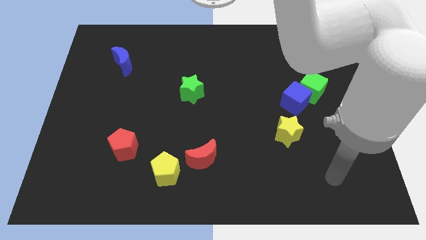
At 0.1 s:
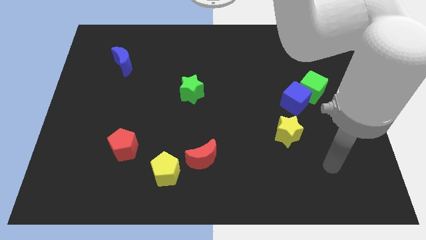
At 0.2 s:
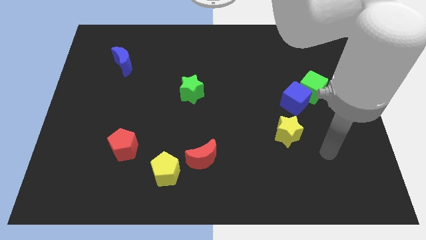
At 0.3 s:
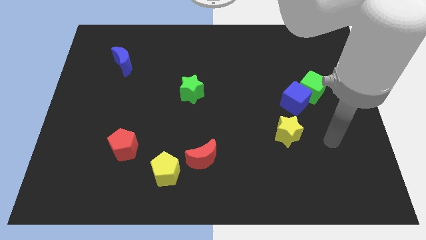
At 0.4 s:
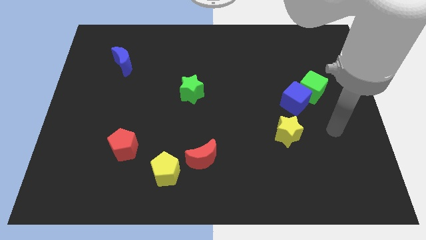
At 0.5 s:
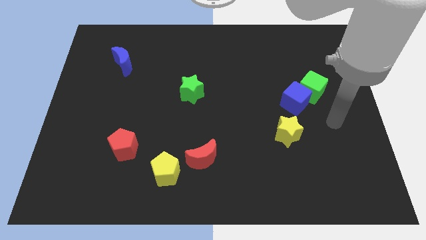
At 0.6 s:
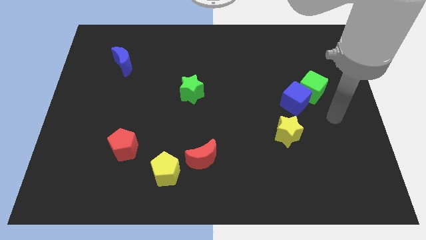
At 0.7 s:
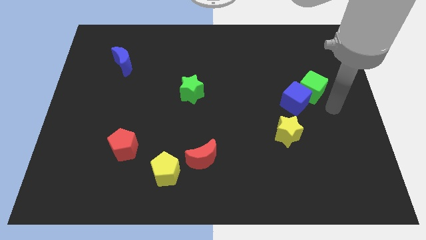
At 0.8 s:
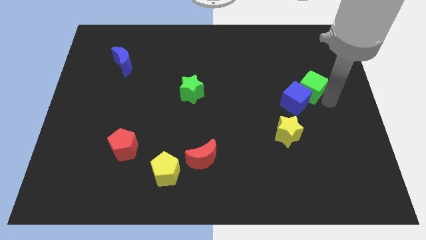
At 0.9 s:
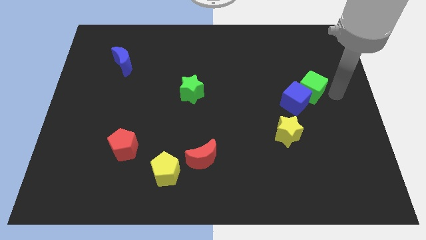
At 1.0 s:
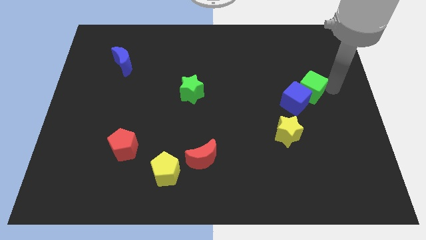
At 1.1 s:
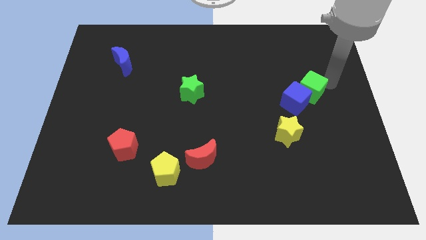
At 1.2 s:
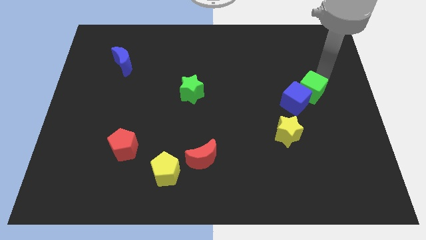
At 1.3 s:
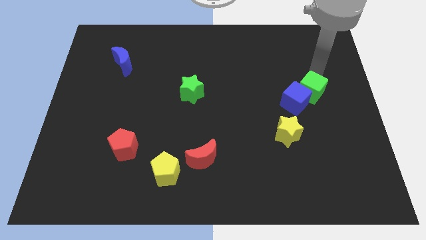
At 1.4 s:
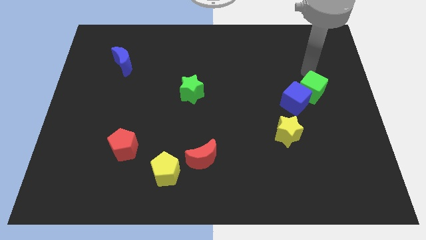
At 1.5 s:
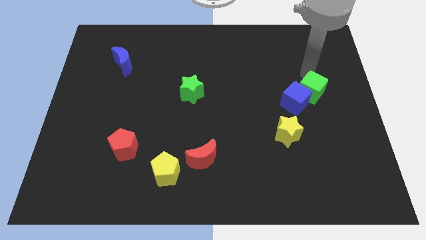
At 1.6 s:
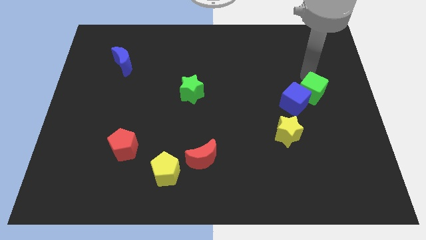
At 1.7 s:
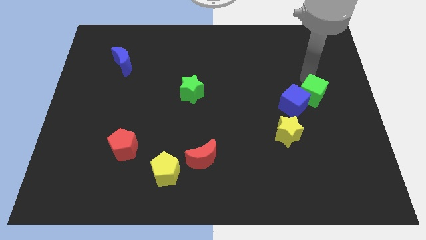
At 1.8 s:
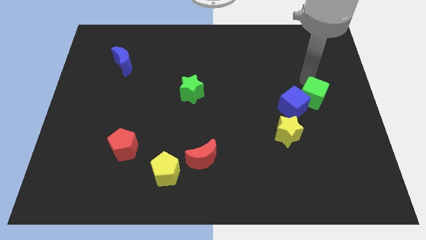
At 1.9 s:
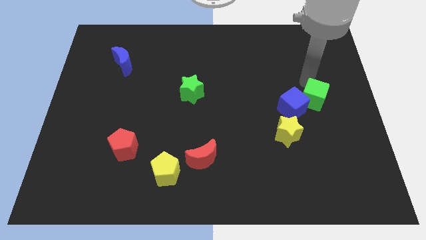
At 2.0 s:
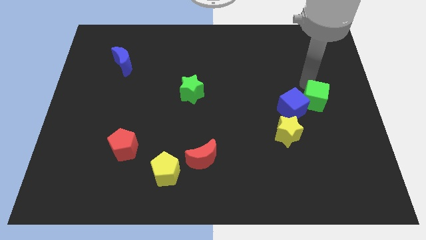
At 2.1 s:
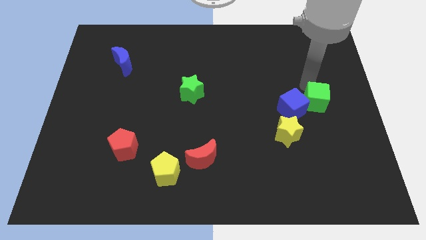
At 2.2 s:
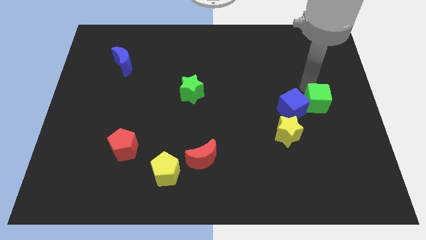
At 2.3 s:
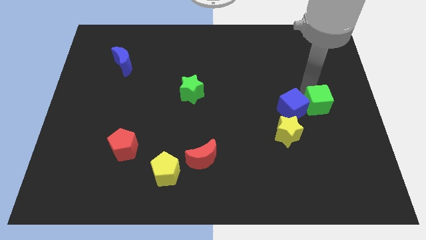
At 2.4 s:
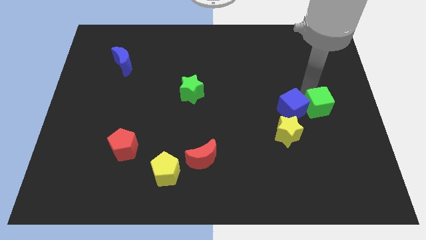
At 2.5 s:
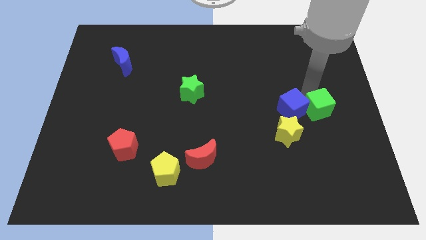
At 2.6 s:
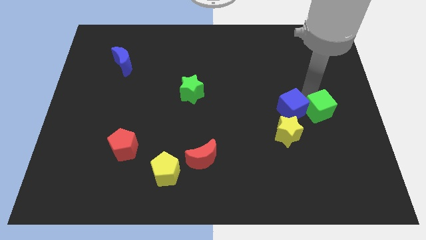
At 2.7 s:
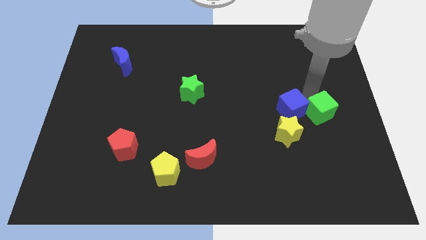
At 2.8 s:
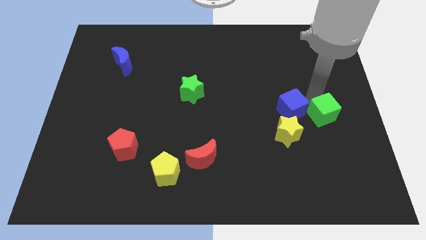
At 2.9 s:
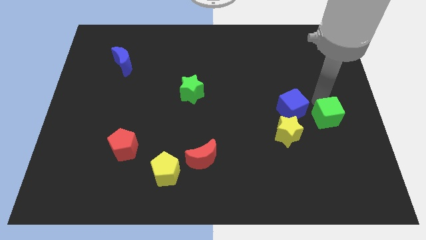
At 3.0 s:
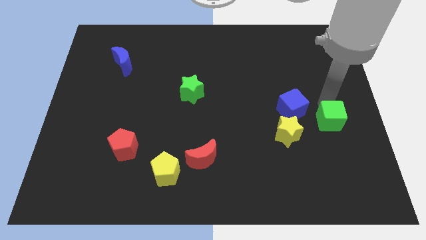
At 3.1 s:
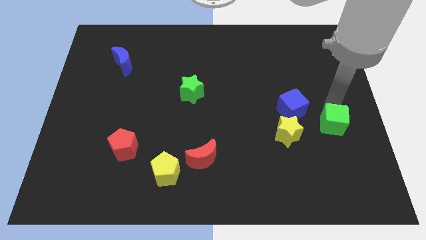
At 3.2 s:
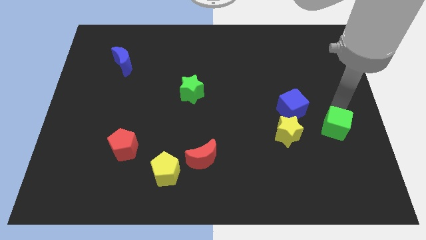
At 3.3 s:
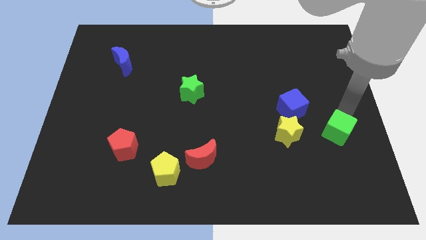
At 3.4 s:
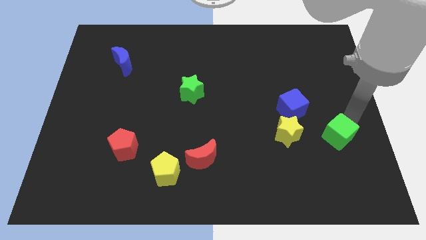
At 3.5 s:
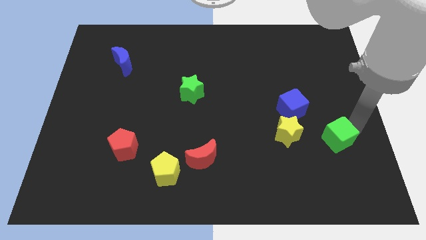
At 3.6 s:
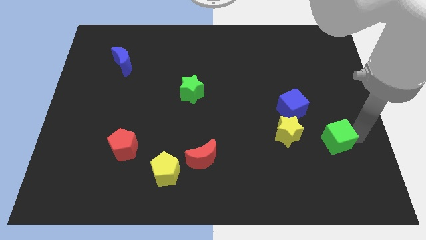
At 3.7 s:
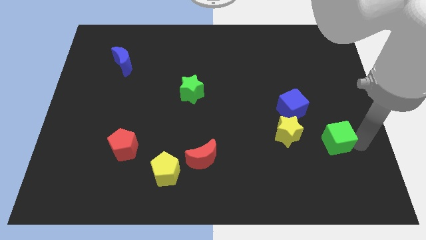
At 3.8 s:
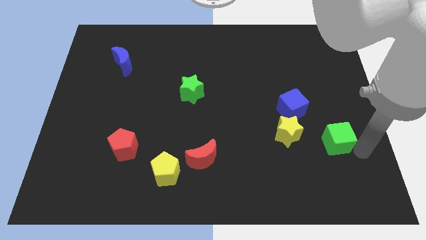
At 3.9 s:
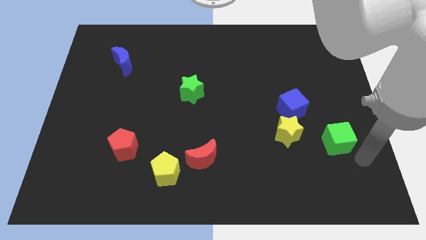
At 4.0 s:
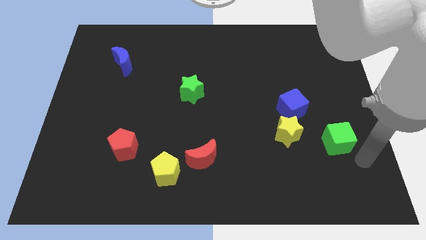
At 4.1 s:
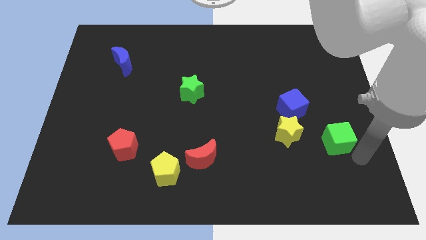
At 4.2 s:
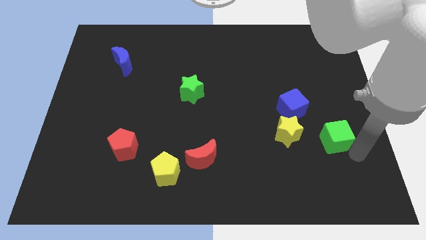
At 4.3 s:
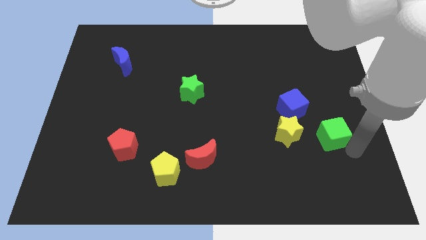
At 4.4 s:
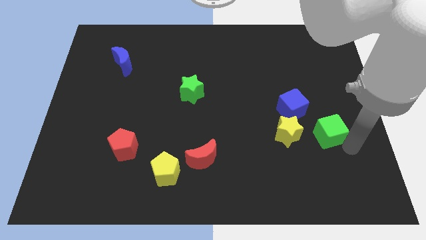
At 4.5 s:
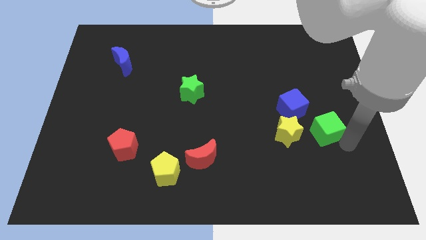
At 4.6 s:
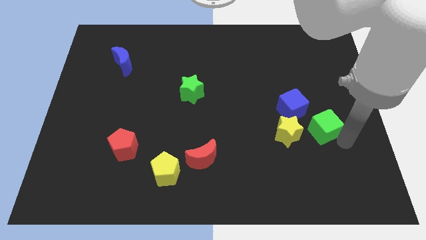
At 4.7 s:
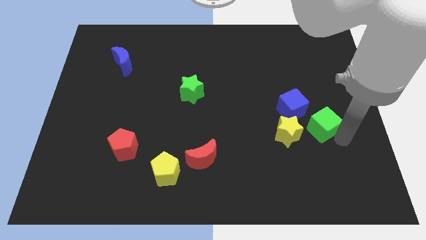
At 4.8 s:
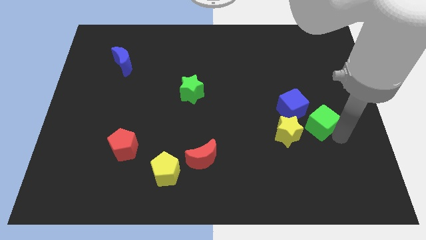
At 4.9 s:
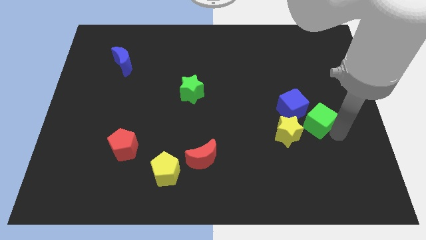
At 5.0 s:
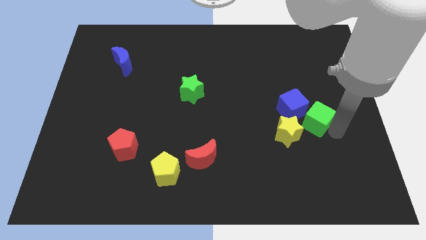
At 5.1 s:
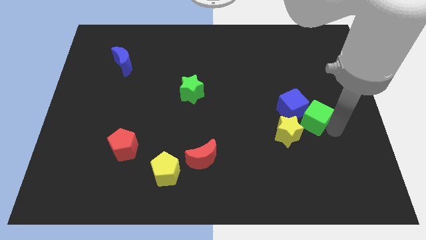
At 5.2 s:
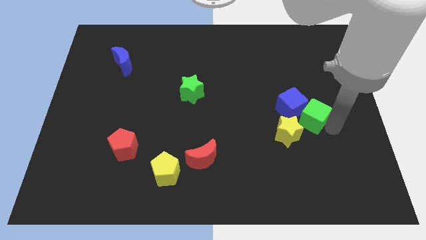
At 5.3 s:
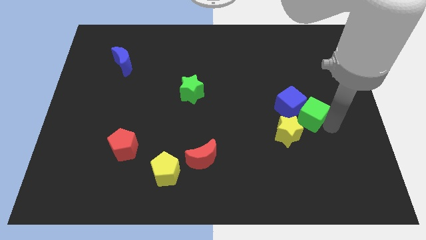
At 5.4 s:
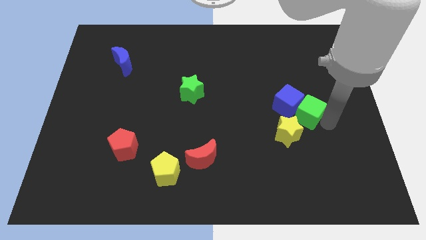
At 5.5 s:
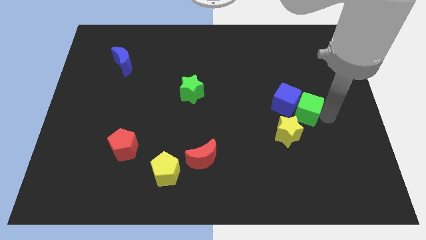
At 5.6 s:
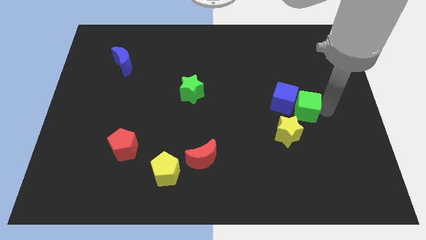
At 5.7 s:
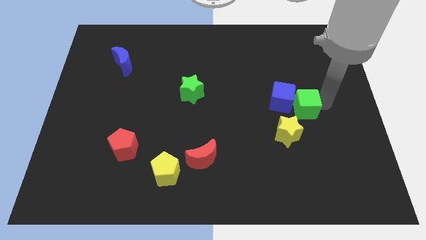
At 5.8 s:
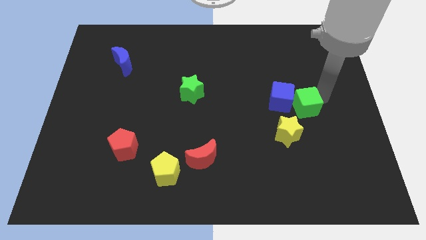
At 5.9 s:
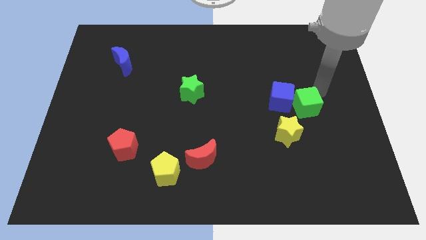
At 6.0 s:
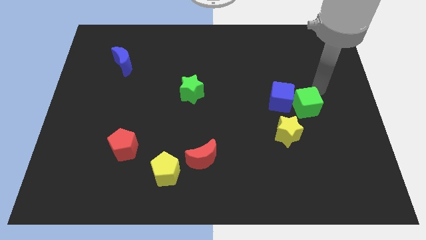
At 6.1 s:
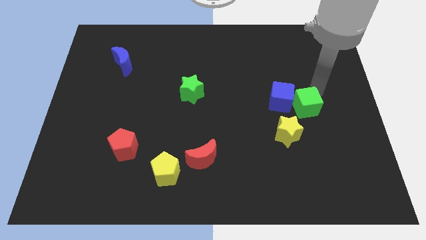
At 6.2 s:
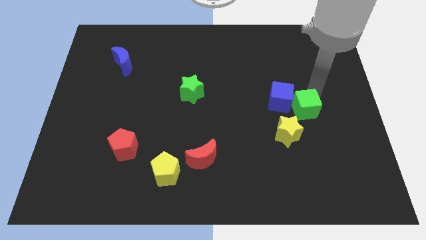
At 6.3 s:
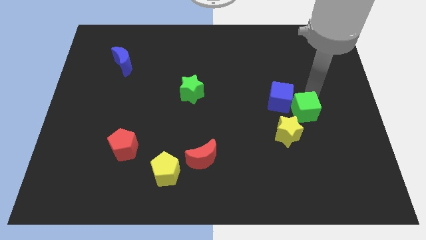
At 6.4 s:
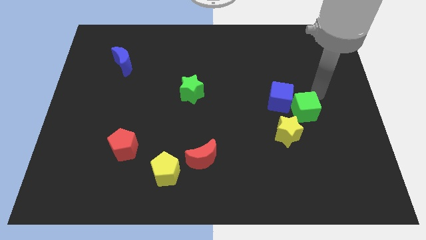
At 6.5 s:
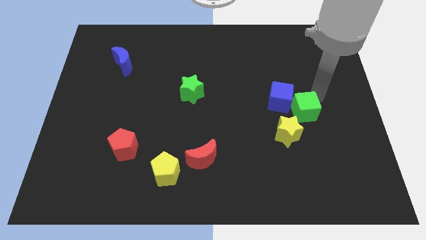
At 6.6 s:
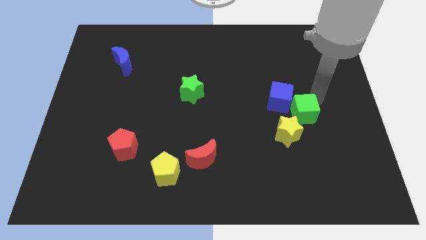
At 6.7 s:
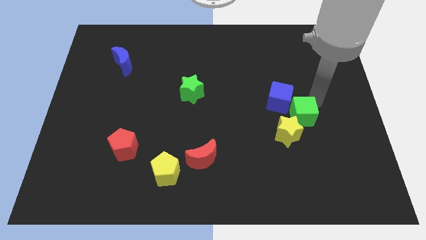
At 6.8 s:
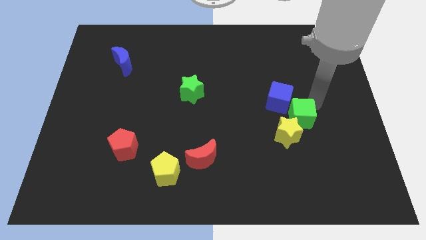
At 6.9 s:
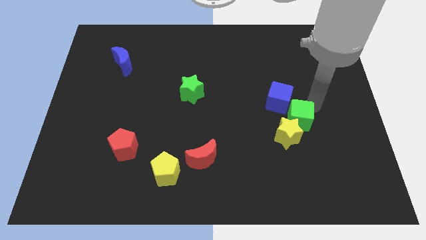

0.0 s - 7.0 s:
slide the green cube towards the yellow star
